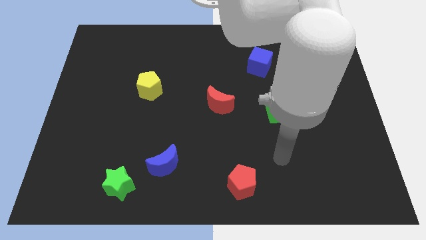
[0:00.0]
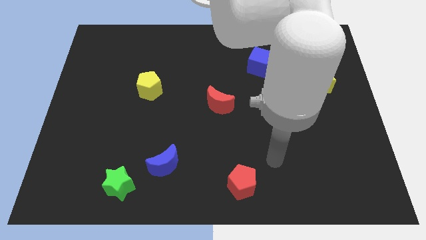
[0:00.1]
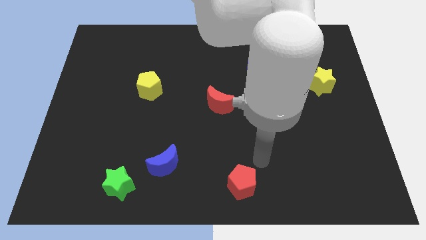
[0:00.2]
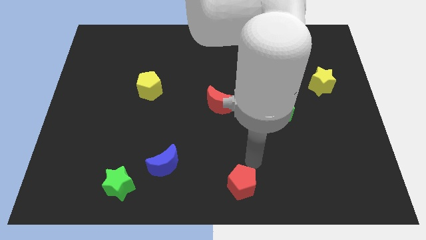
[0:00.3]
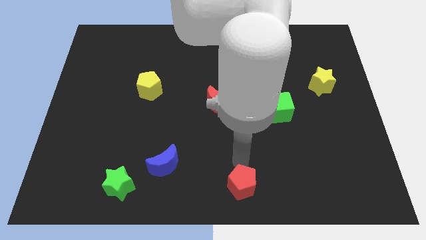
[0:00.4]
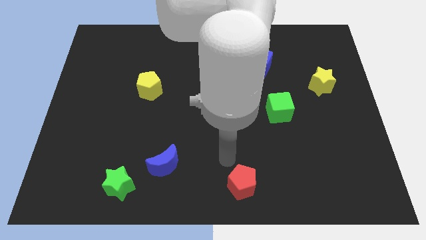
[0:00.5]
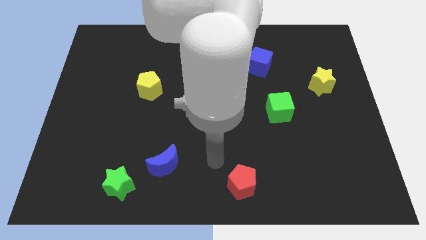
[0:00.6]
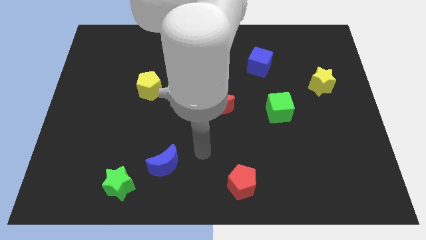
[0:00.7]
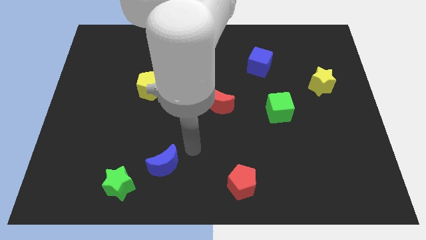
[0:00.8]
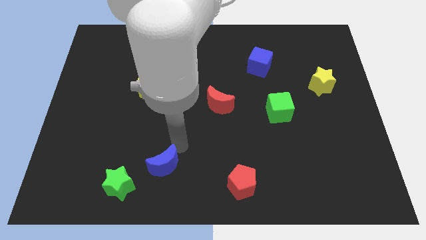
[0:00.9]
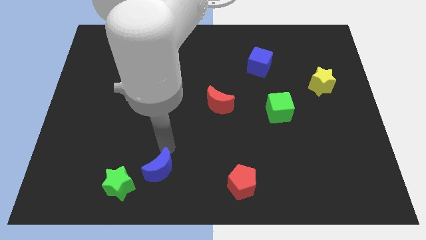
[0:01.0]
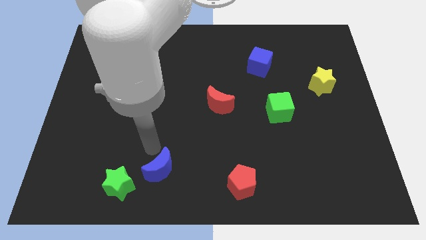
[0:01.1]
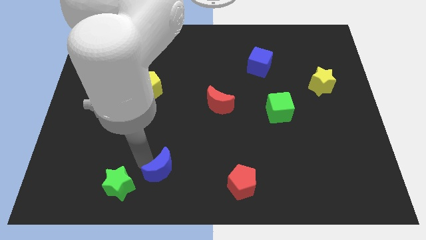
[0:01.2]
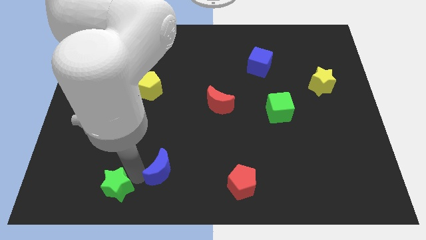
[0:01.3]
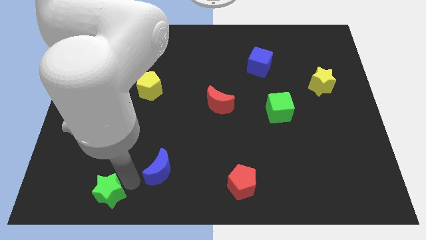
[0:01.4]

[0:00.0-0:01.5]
pull the blue moon apart from the green star

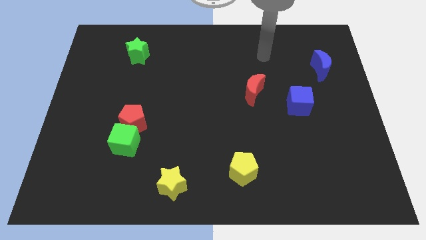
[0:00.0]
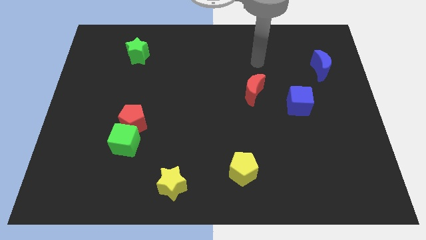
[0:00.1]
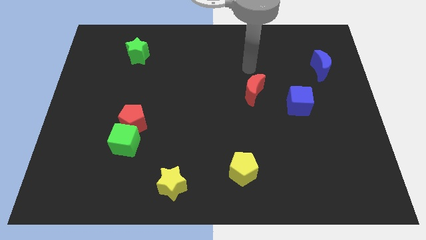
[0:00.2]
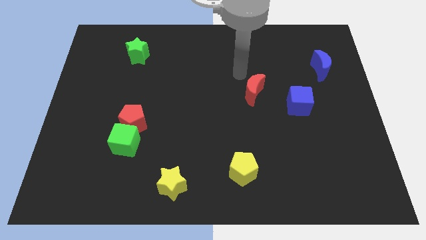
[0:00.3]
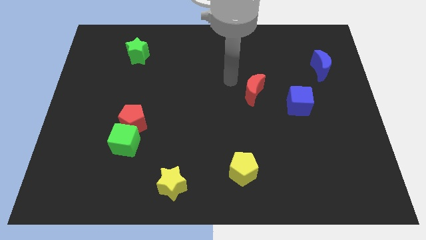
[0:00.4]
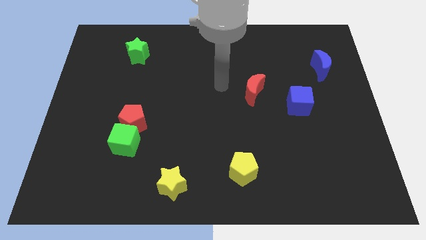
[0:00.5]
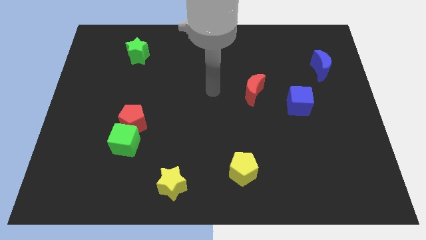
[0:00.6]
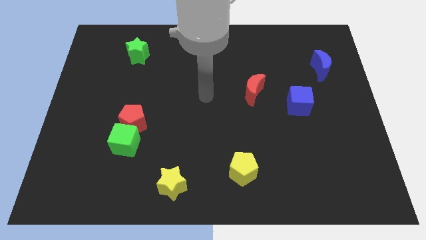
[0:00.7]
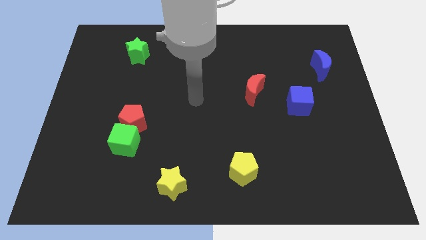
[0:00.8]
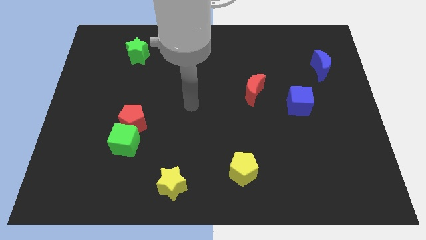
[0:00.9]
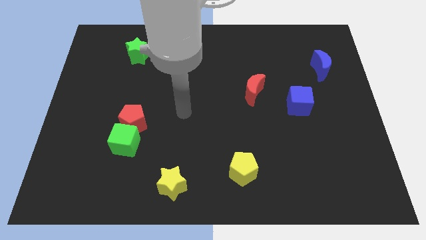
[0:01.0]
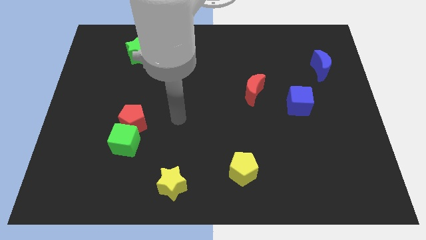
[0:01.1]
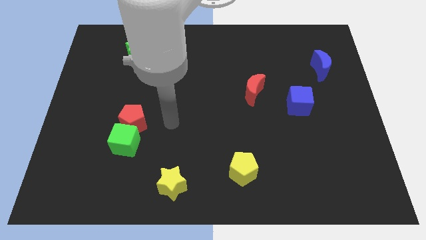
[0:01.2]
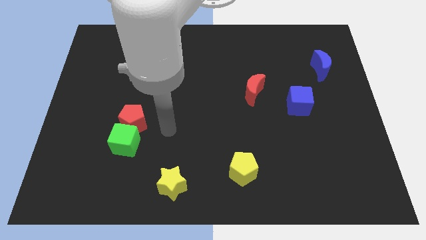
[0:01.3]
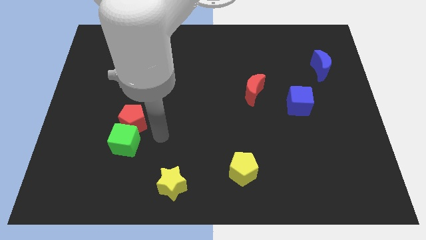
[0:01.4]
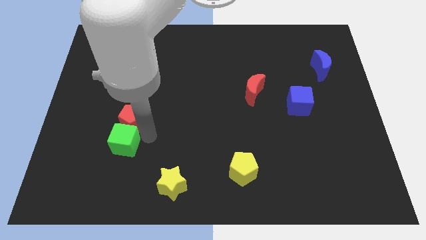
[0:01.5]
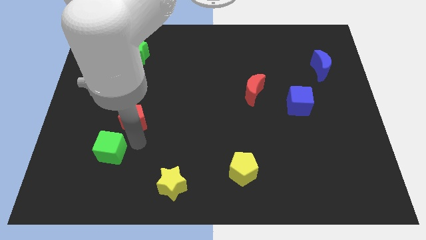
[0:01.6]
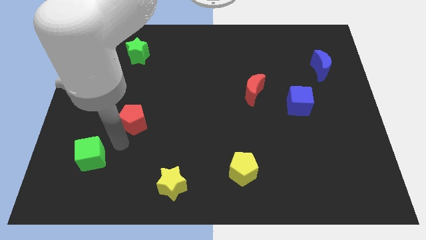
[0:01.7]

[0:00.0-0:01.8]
move the red pentagon away from the green cube

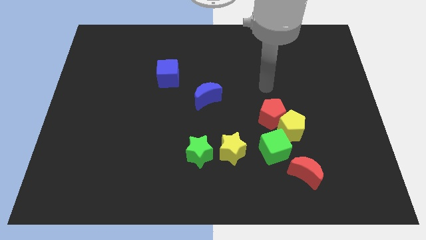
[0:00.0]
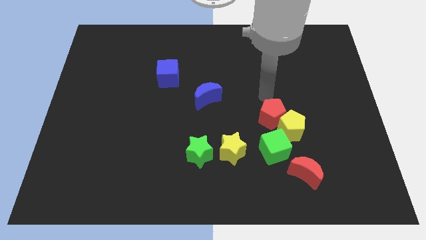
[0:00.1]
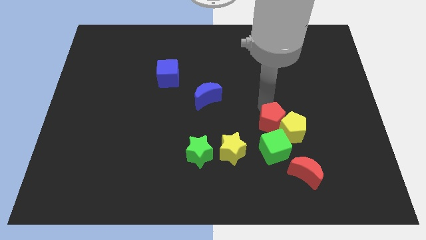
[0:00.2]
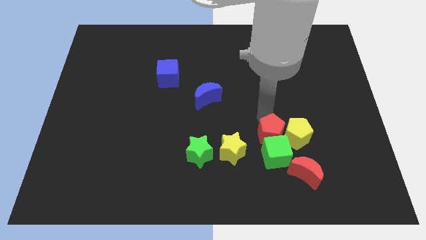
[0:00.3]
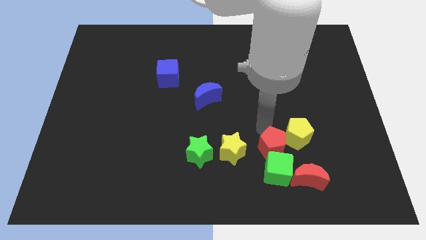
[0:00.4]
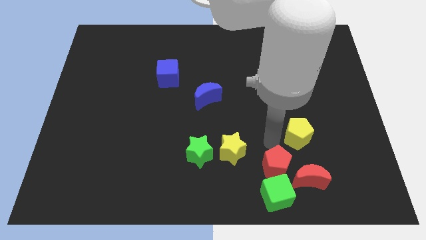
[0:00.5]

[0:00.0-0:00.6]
pull the yellow pentagon apart from the red pentagon and green cube

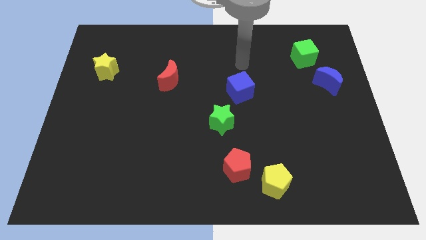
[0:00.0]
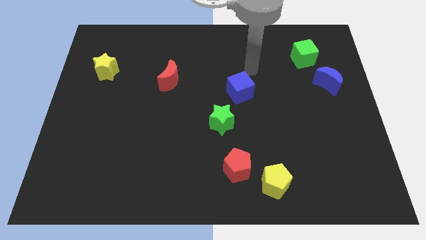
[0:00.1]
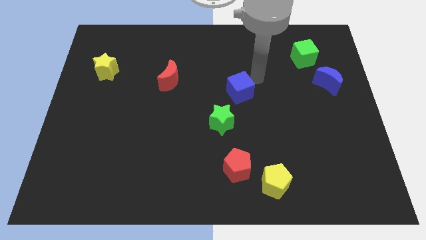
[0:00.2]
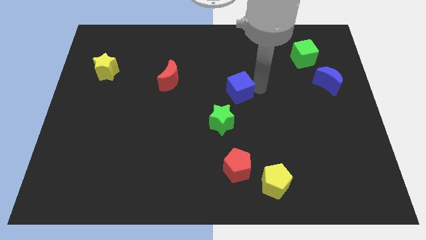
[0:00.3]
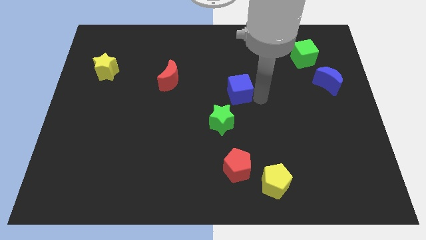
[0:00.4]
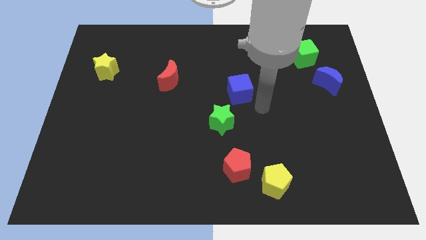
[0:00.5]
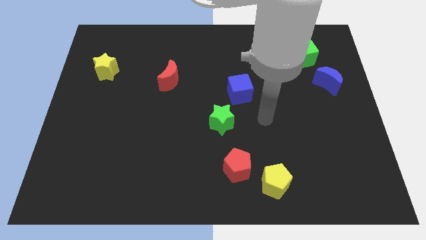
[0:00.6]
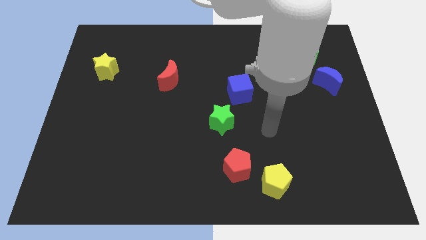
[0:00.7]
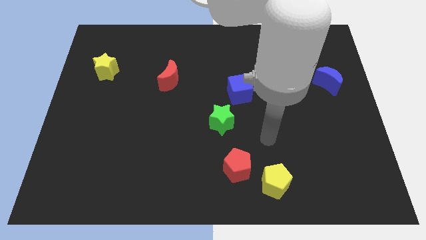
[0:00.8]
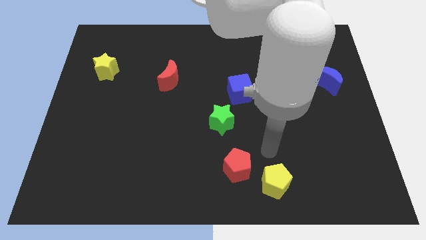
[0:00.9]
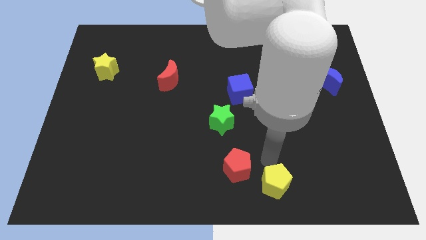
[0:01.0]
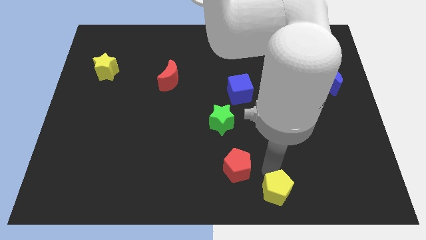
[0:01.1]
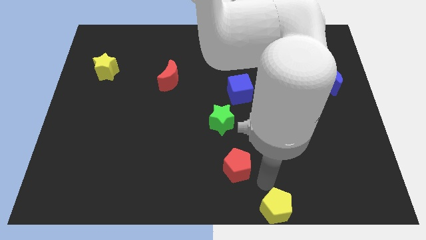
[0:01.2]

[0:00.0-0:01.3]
pull the red pentagon apart from the yellow pentagon

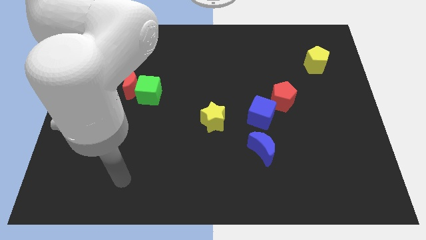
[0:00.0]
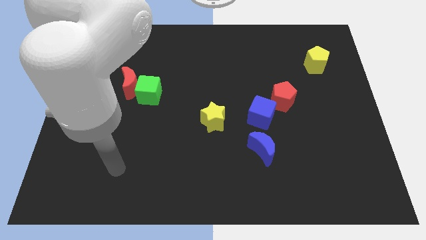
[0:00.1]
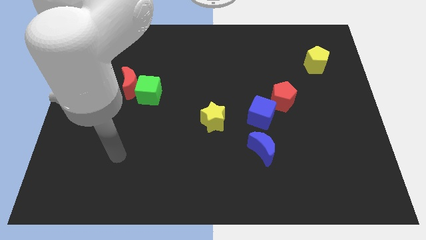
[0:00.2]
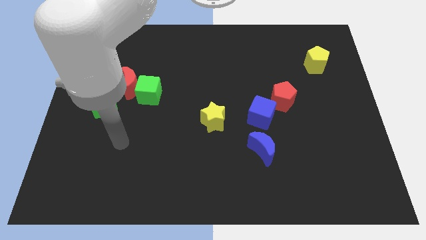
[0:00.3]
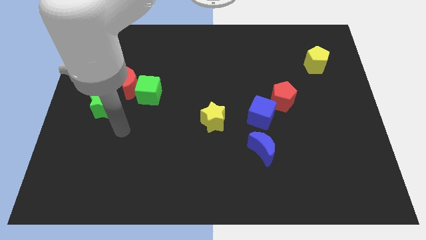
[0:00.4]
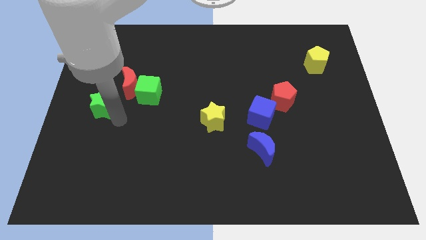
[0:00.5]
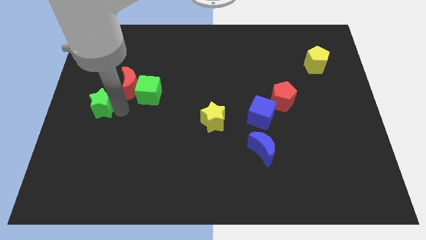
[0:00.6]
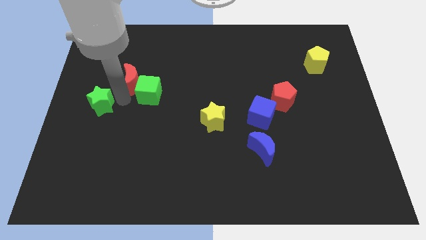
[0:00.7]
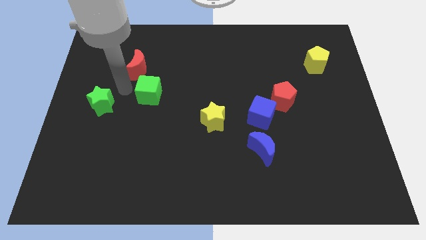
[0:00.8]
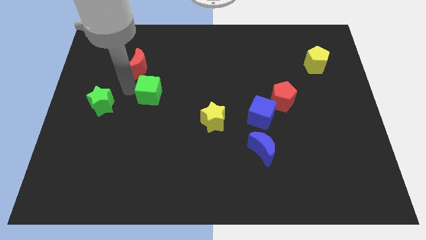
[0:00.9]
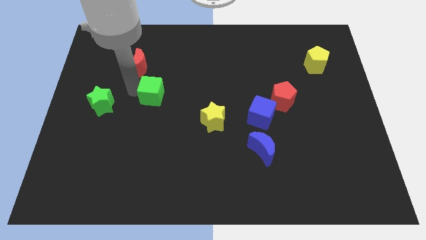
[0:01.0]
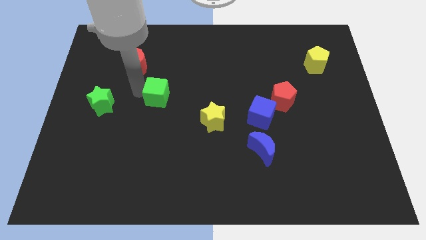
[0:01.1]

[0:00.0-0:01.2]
move the green cube away from the red moon

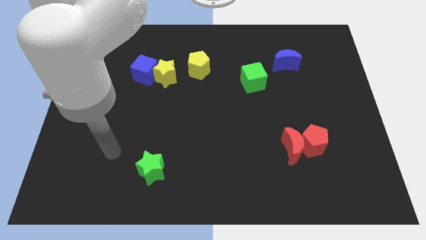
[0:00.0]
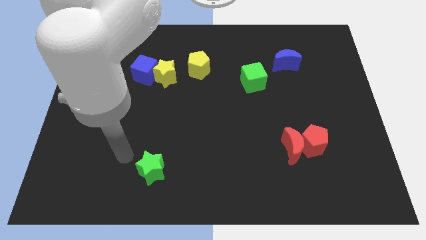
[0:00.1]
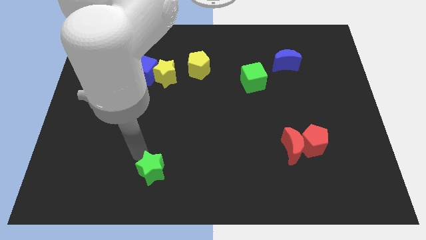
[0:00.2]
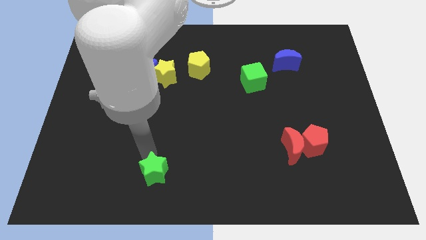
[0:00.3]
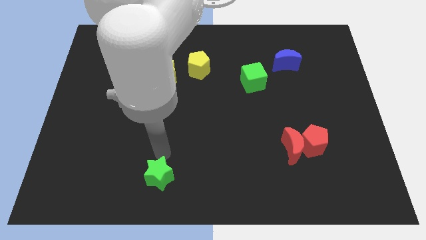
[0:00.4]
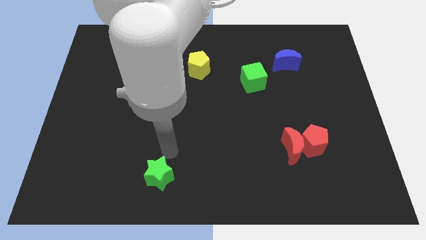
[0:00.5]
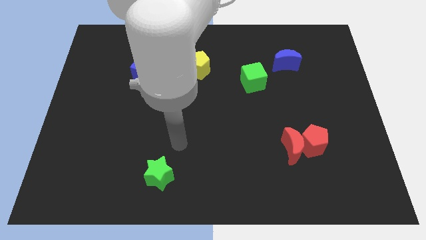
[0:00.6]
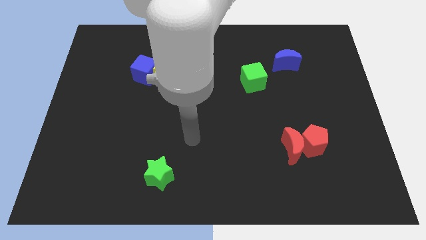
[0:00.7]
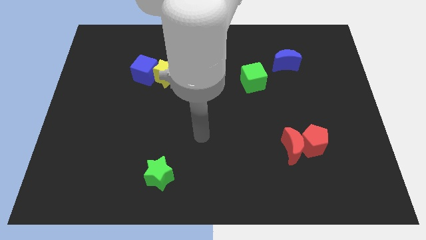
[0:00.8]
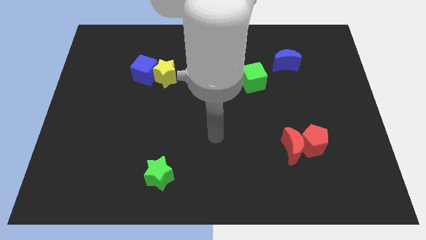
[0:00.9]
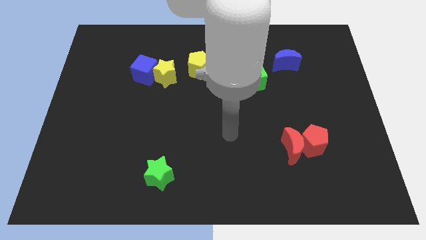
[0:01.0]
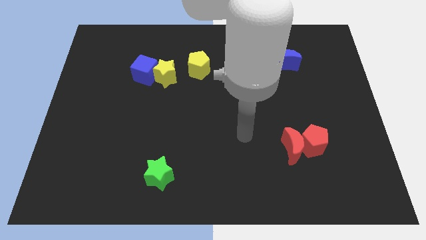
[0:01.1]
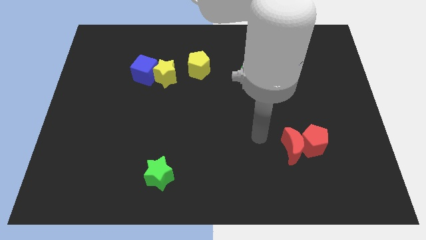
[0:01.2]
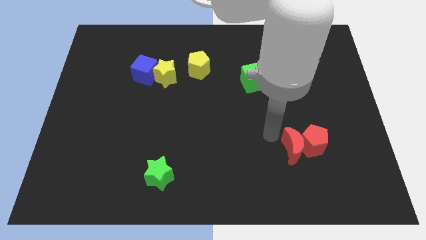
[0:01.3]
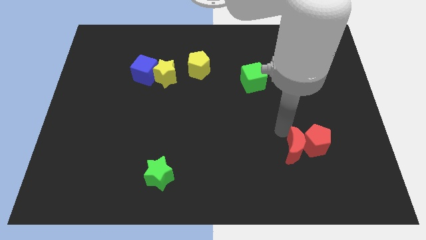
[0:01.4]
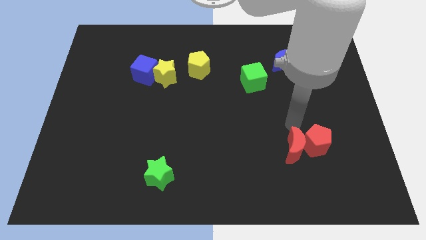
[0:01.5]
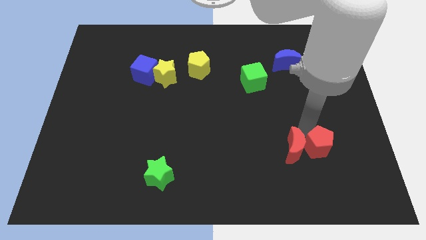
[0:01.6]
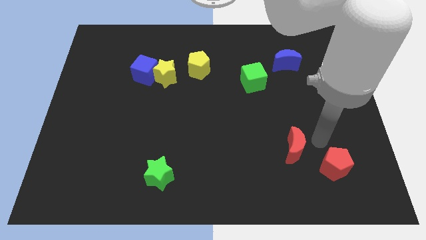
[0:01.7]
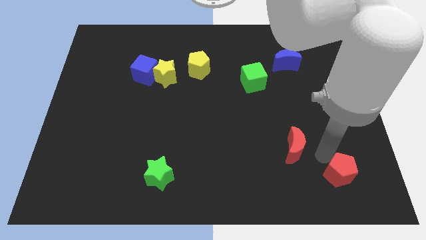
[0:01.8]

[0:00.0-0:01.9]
move the red moon away from the red pentagon

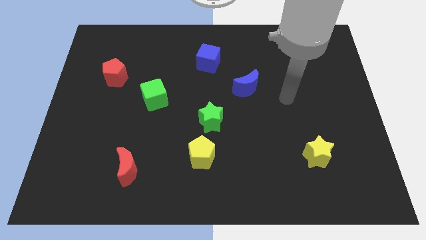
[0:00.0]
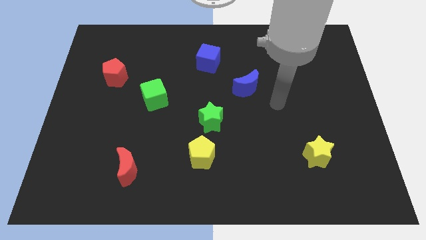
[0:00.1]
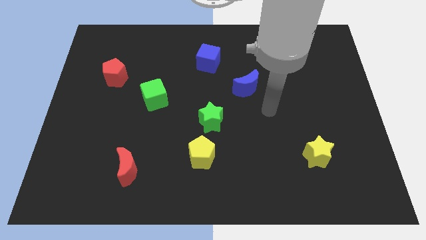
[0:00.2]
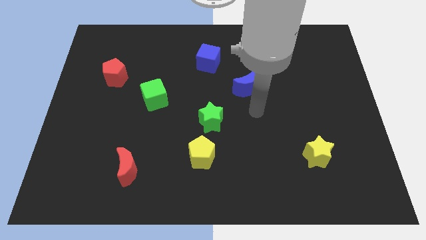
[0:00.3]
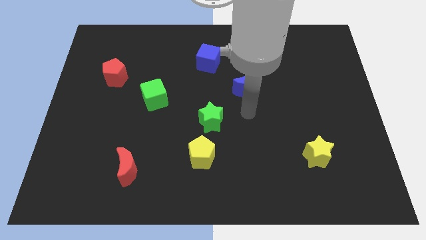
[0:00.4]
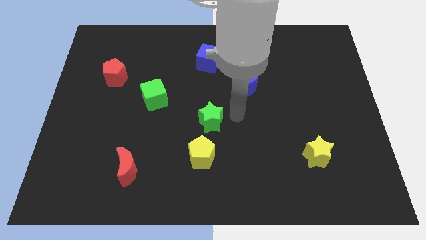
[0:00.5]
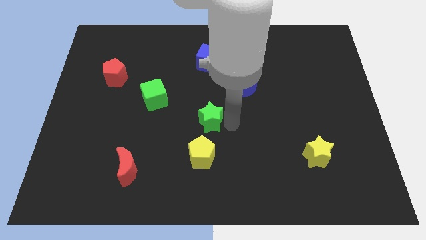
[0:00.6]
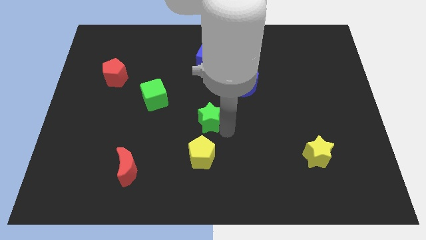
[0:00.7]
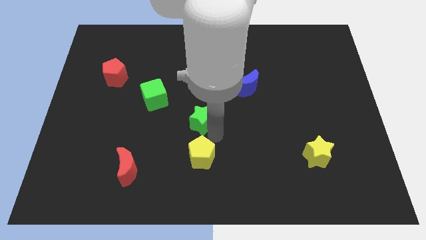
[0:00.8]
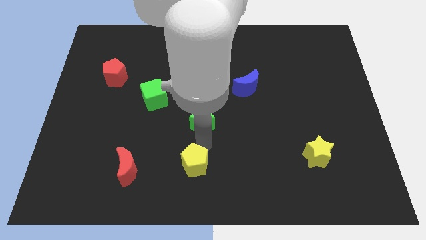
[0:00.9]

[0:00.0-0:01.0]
move the green star away from the yellow pentagon

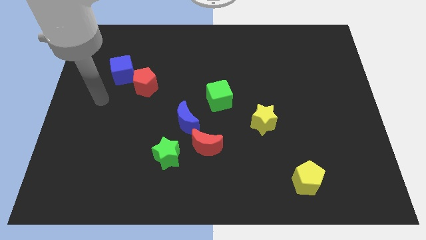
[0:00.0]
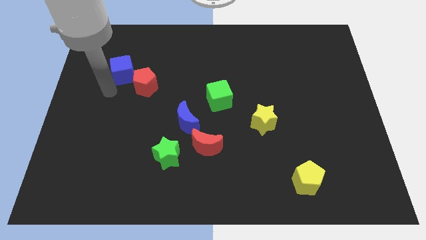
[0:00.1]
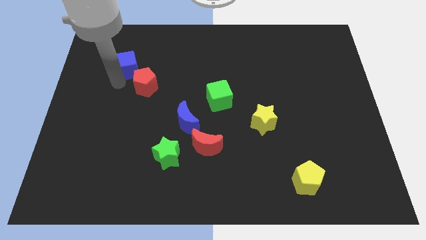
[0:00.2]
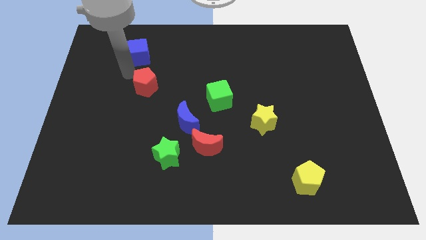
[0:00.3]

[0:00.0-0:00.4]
separate the red pentagon from the blue cube
